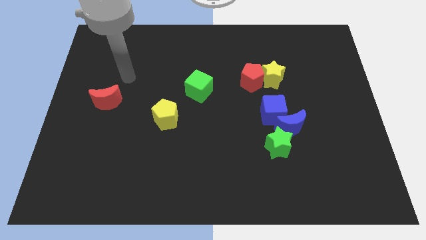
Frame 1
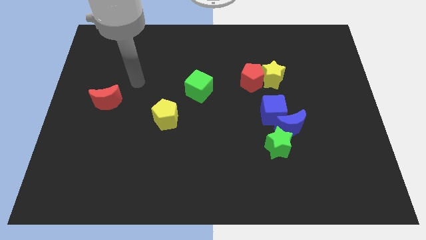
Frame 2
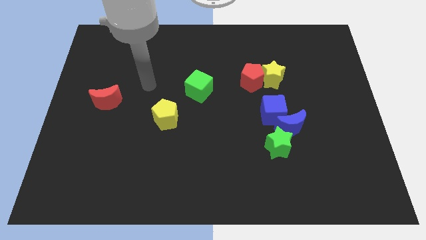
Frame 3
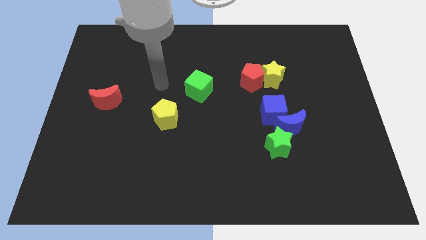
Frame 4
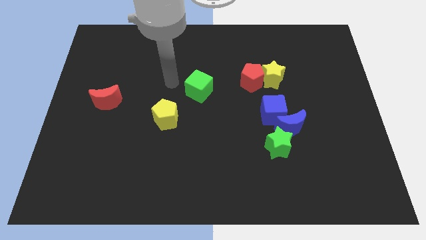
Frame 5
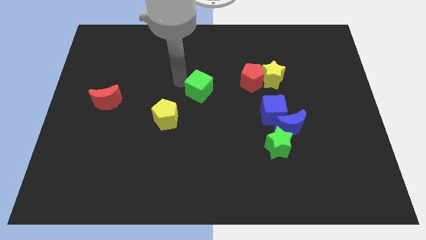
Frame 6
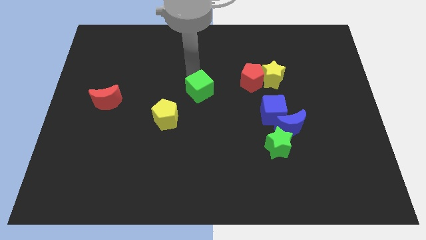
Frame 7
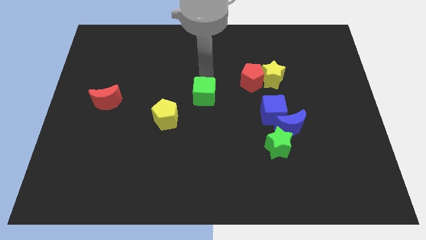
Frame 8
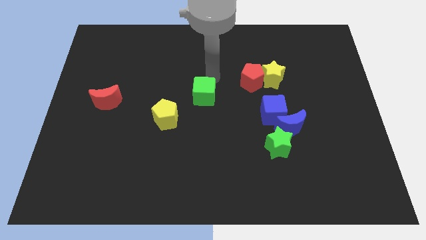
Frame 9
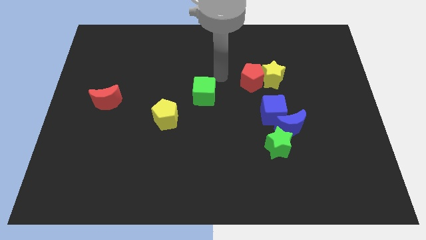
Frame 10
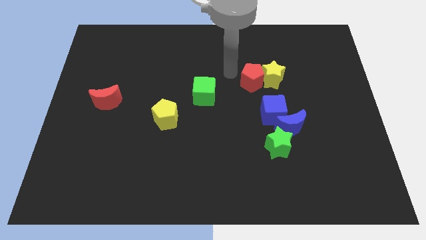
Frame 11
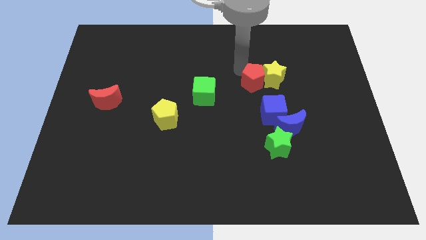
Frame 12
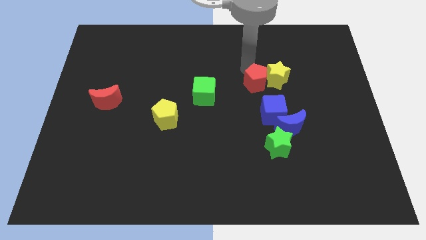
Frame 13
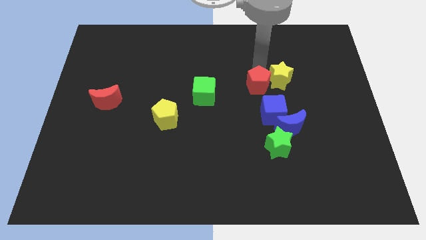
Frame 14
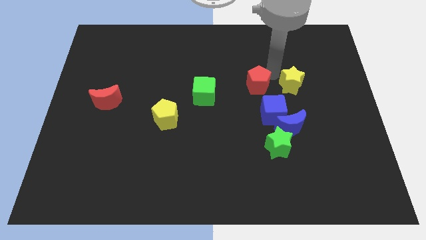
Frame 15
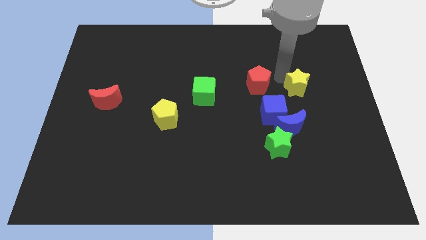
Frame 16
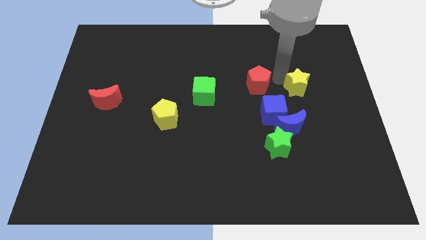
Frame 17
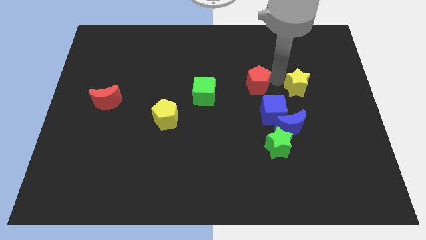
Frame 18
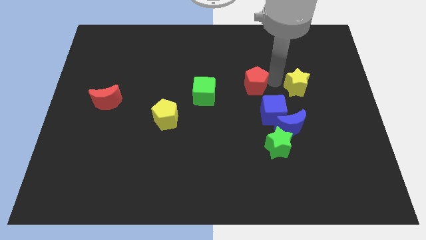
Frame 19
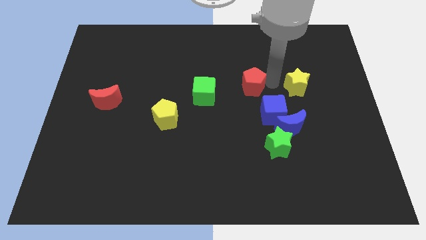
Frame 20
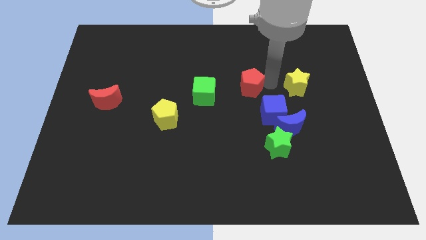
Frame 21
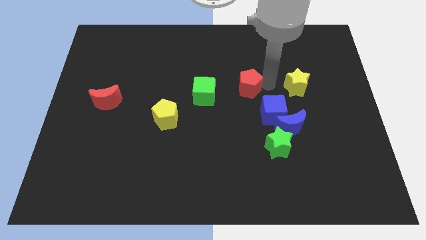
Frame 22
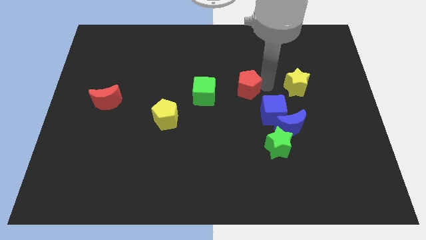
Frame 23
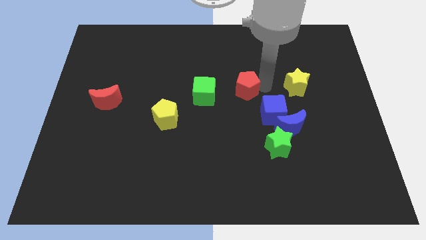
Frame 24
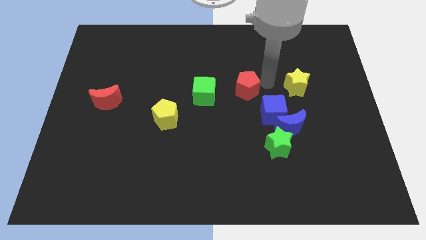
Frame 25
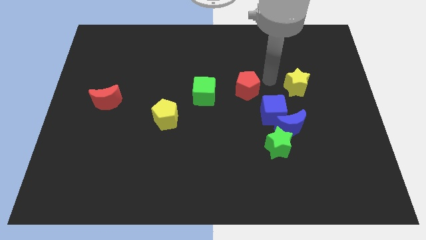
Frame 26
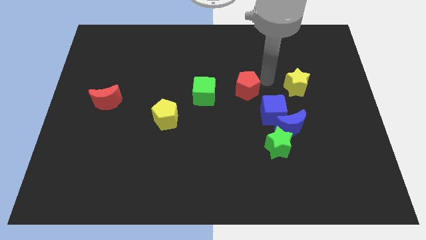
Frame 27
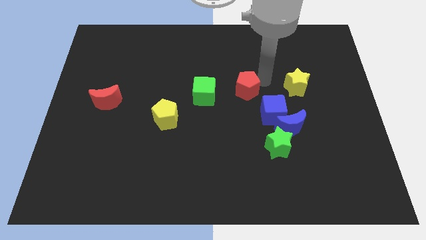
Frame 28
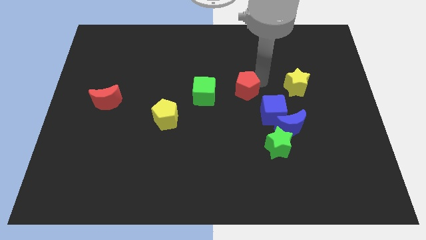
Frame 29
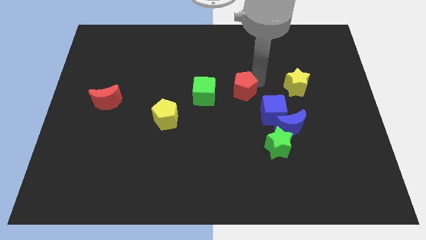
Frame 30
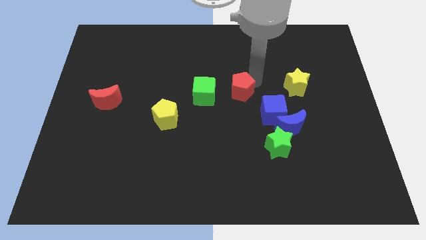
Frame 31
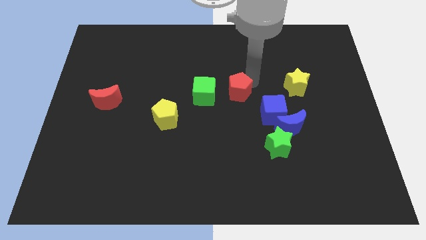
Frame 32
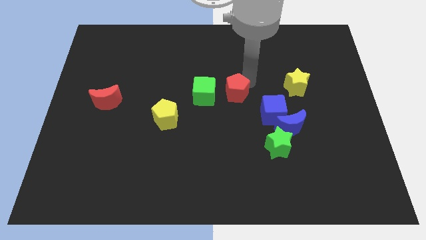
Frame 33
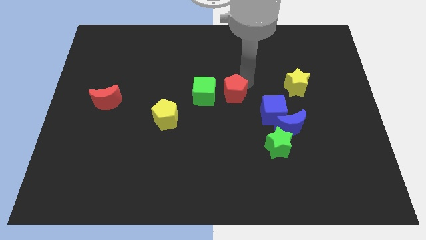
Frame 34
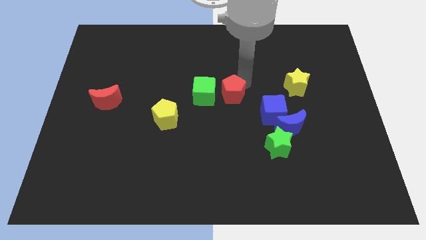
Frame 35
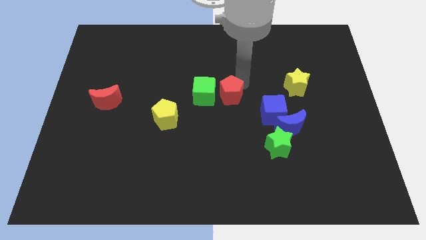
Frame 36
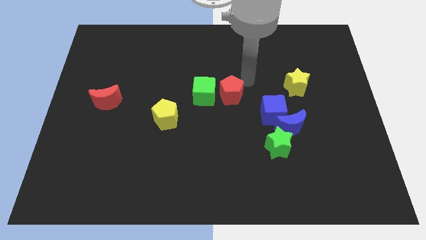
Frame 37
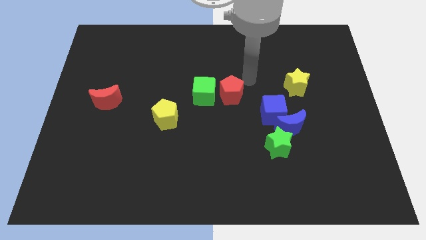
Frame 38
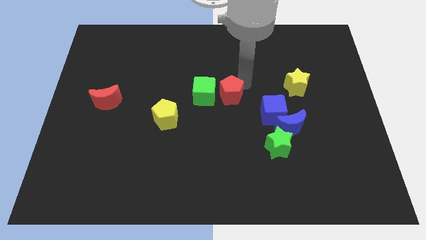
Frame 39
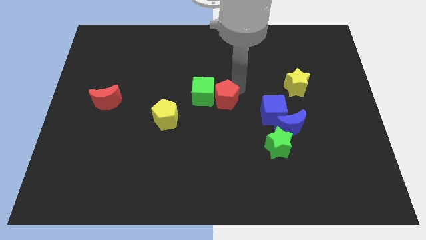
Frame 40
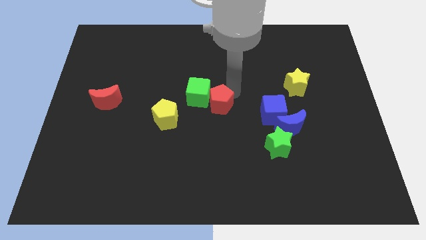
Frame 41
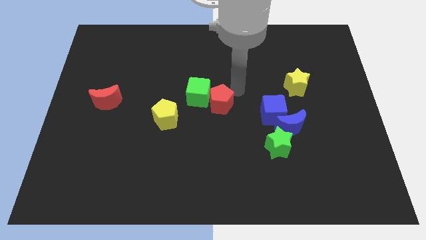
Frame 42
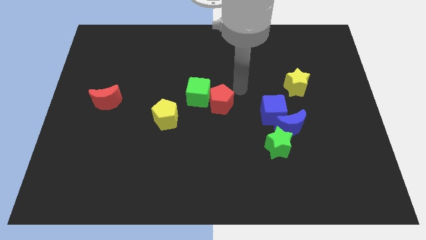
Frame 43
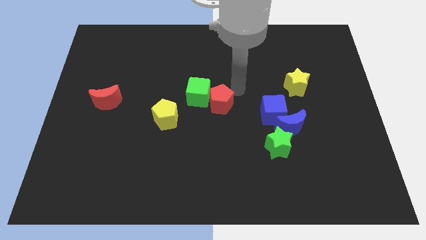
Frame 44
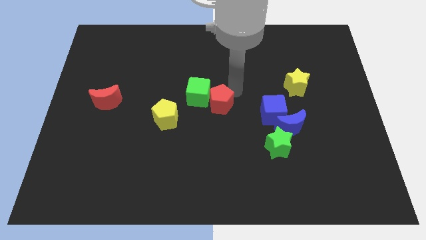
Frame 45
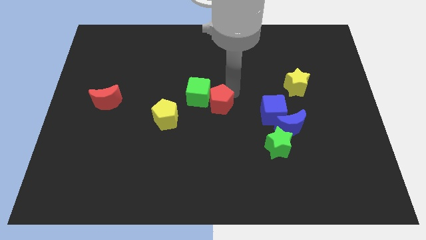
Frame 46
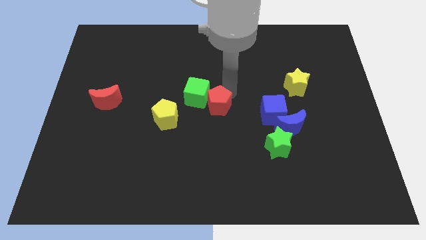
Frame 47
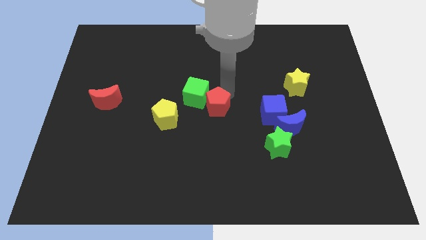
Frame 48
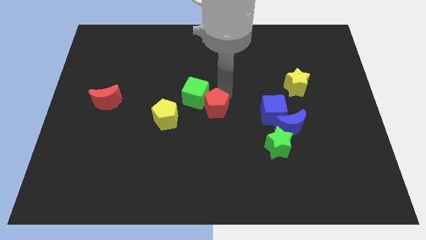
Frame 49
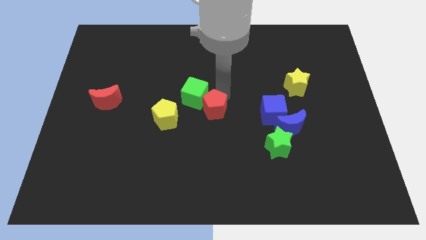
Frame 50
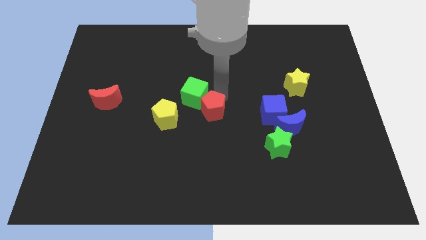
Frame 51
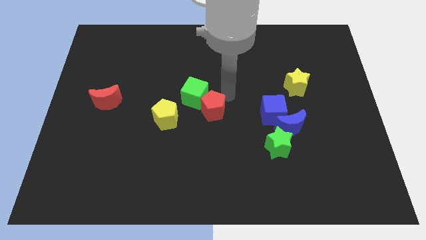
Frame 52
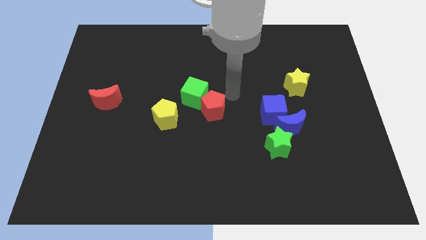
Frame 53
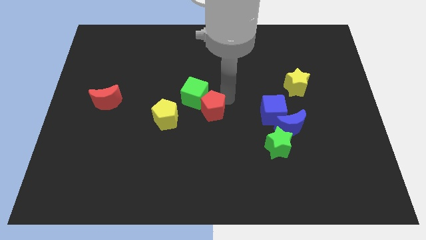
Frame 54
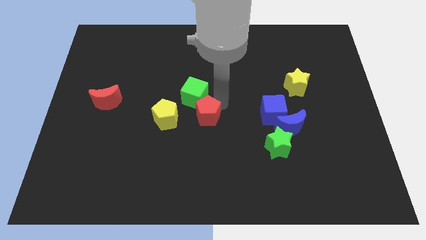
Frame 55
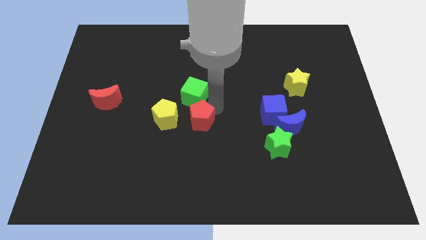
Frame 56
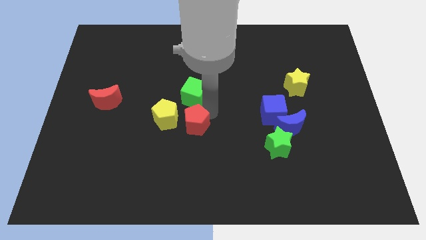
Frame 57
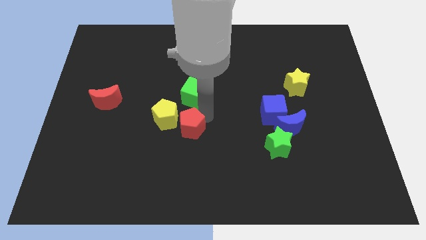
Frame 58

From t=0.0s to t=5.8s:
push the red pentagon diagonally down and left

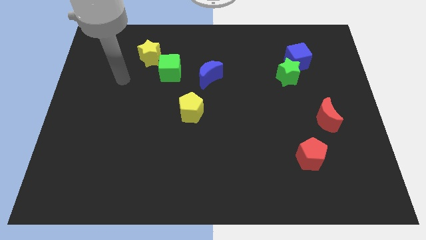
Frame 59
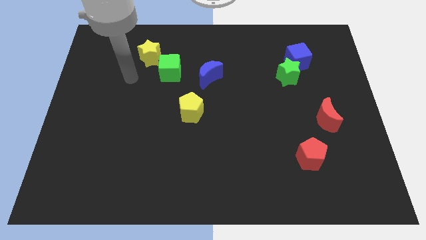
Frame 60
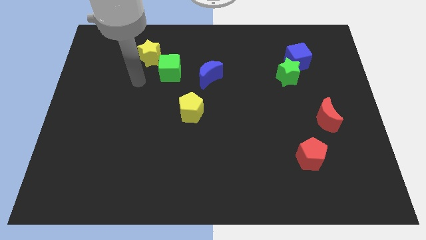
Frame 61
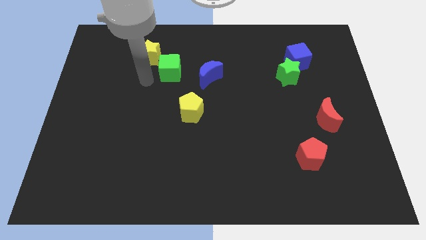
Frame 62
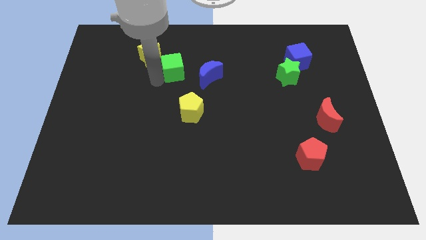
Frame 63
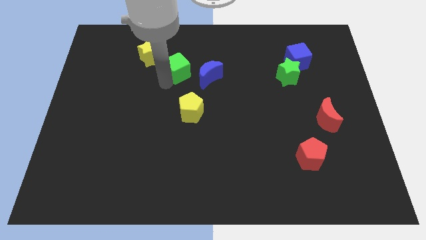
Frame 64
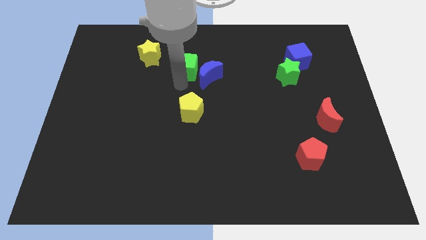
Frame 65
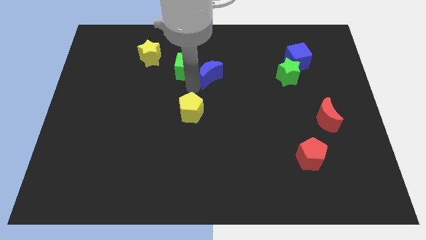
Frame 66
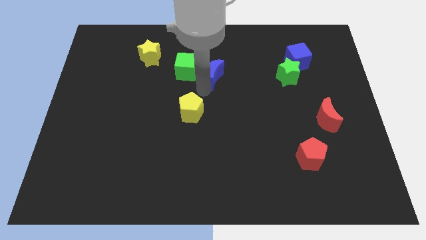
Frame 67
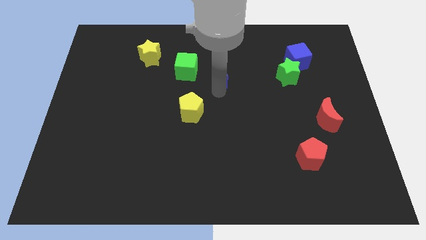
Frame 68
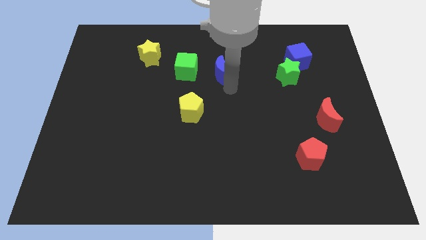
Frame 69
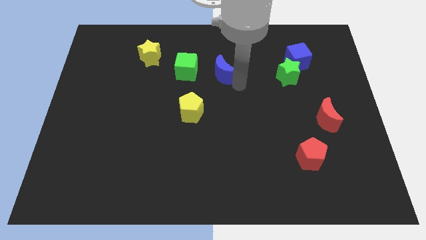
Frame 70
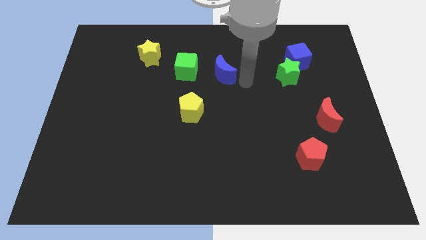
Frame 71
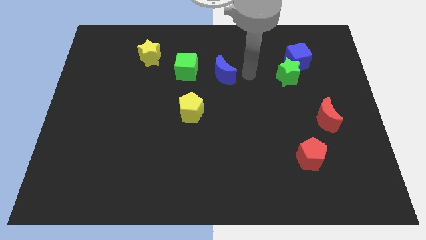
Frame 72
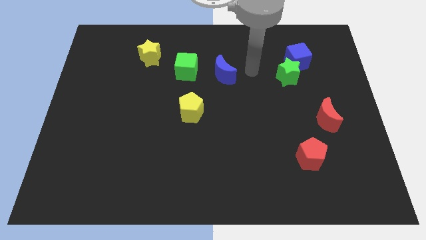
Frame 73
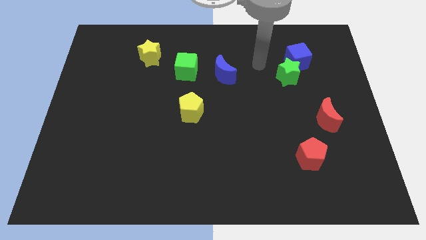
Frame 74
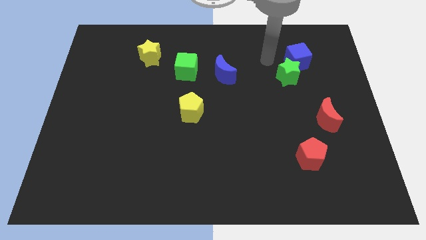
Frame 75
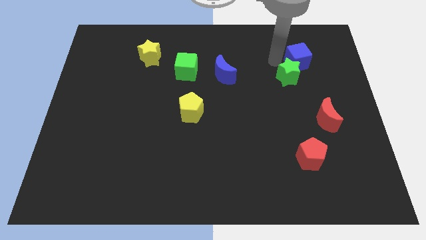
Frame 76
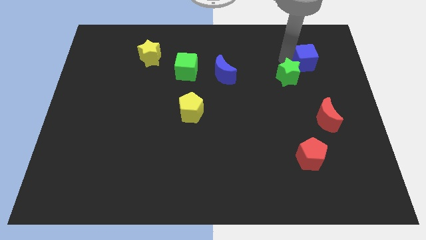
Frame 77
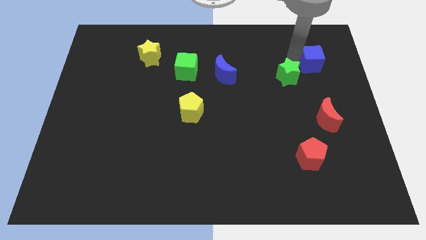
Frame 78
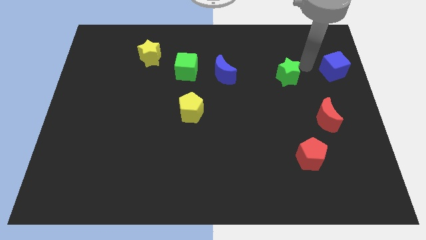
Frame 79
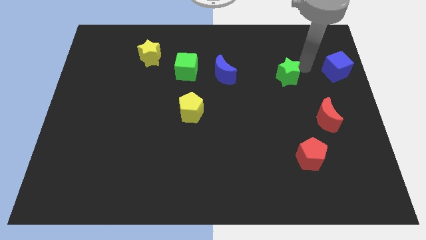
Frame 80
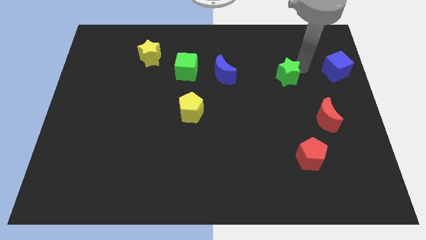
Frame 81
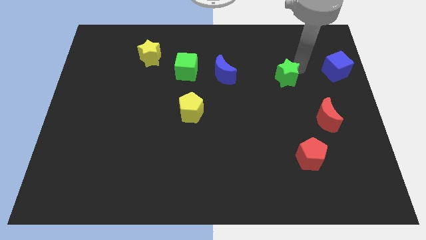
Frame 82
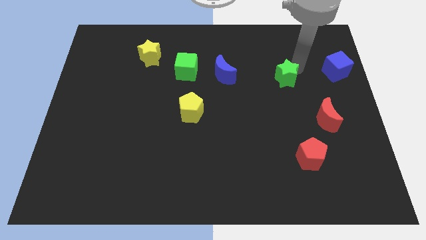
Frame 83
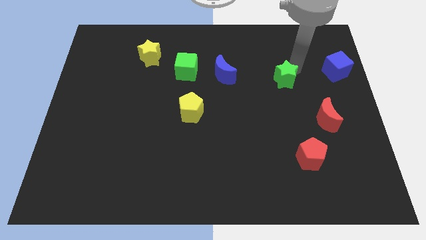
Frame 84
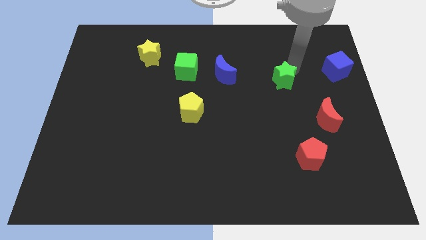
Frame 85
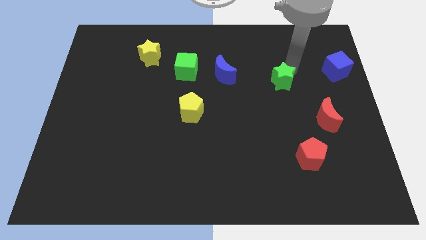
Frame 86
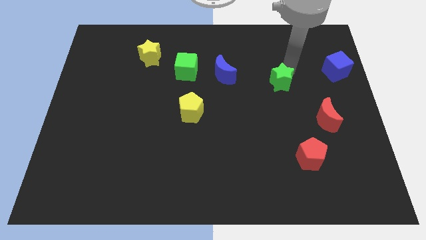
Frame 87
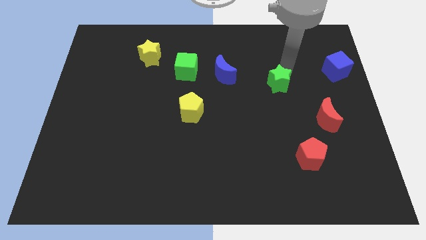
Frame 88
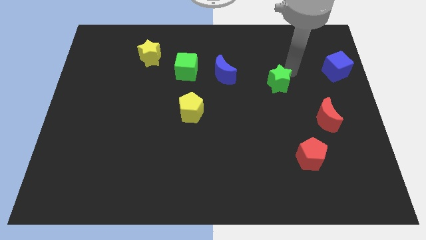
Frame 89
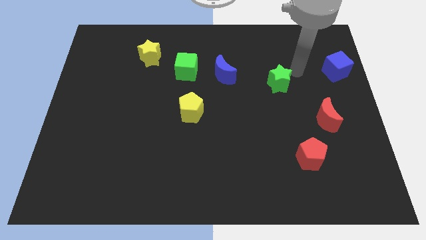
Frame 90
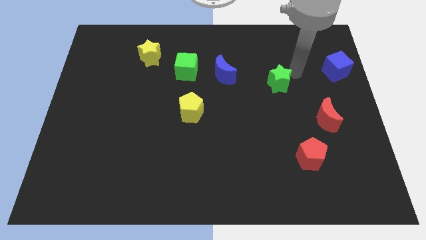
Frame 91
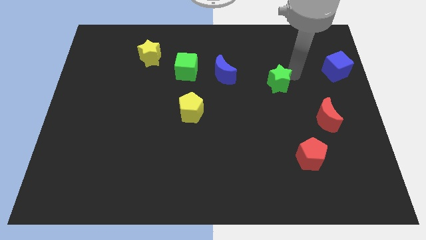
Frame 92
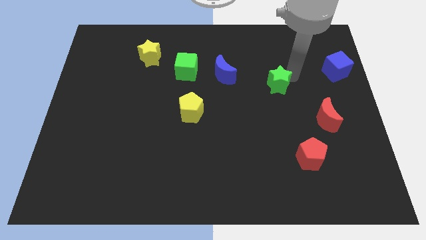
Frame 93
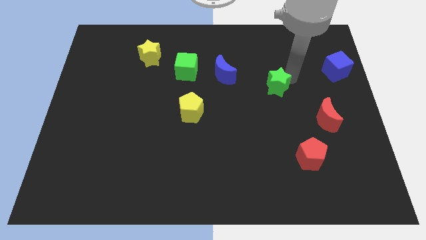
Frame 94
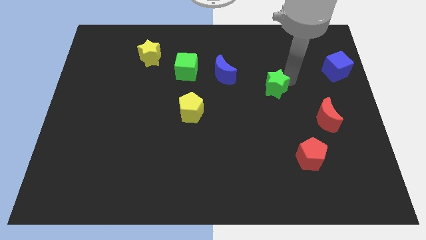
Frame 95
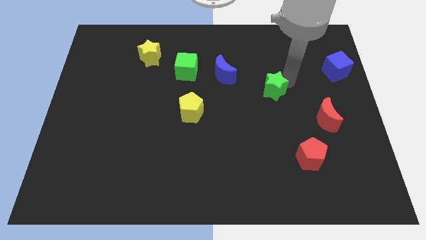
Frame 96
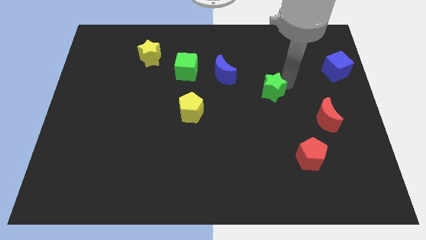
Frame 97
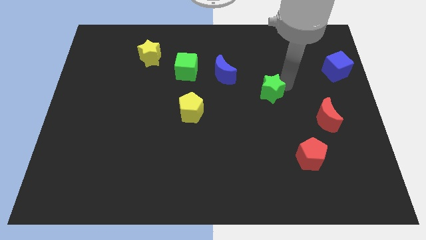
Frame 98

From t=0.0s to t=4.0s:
push the green star diagonally downwards and left somewhat
